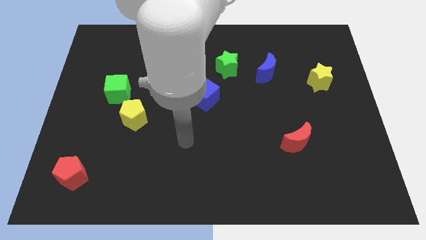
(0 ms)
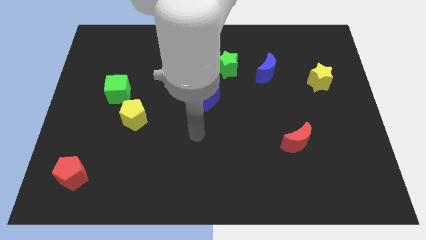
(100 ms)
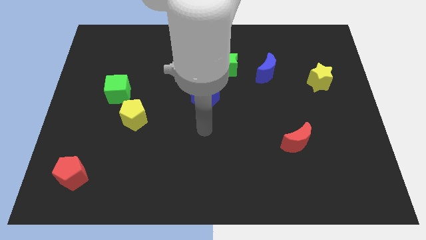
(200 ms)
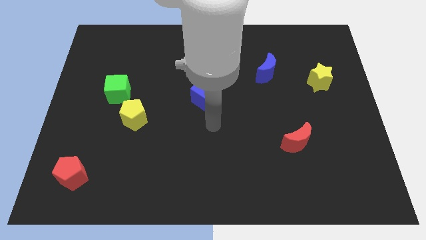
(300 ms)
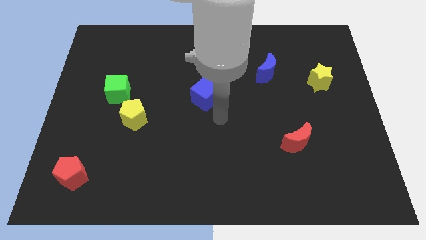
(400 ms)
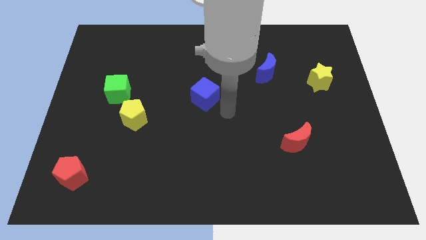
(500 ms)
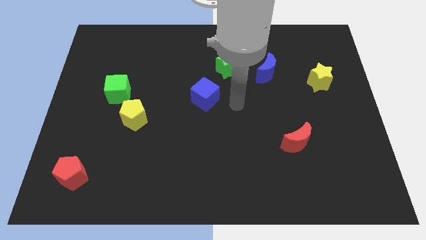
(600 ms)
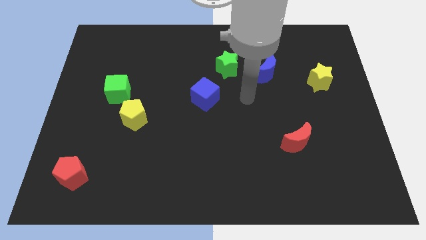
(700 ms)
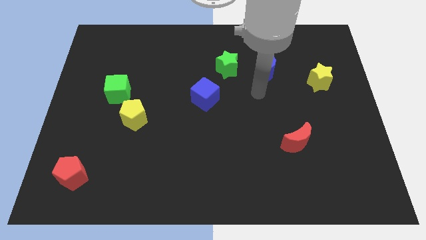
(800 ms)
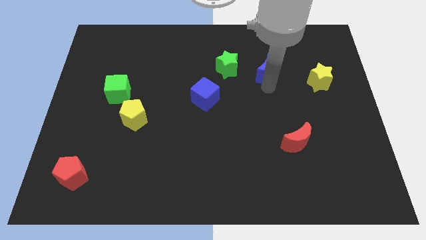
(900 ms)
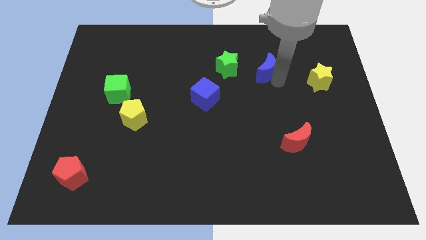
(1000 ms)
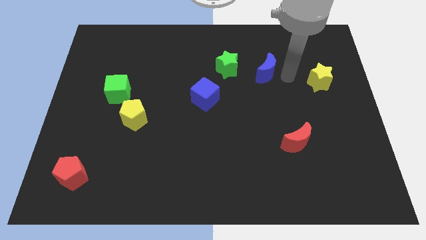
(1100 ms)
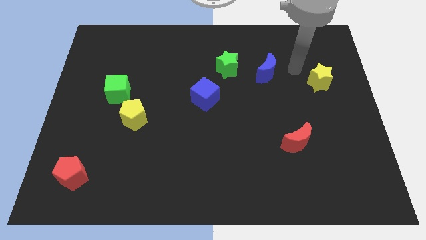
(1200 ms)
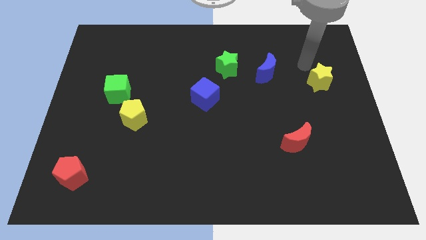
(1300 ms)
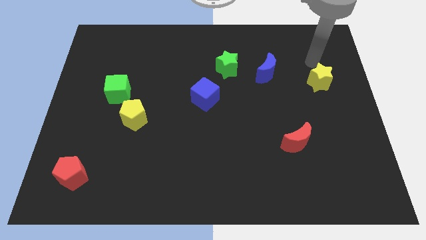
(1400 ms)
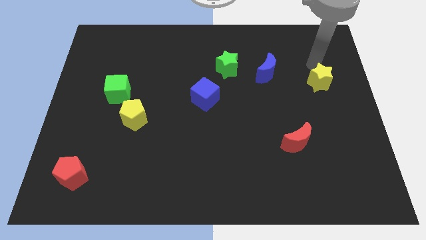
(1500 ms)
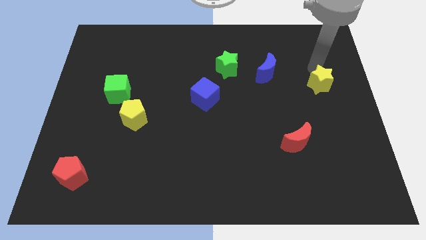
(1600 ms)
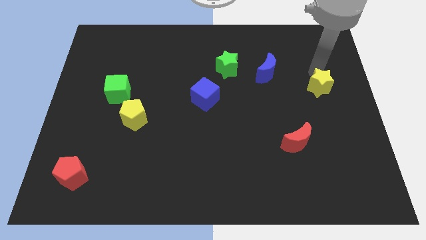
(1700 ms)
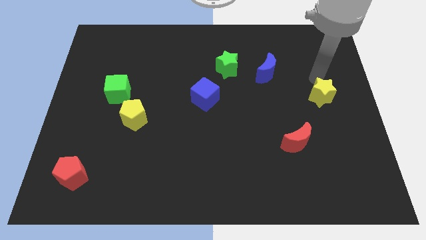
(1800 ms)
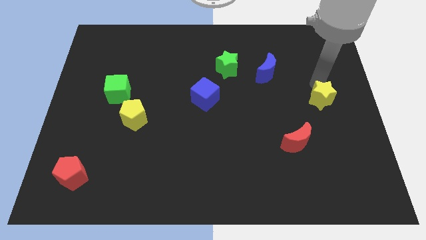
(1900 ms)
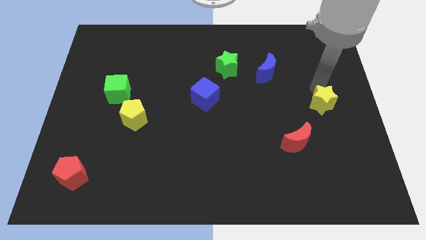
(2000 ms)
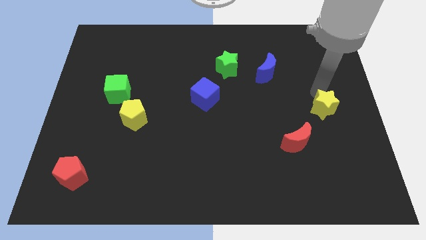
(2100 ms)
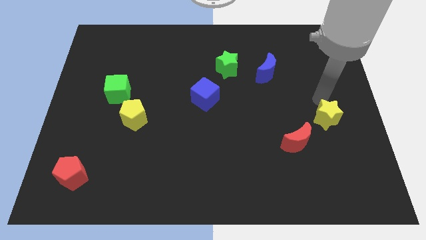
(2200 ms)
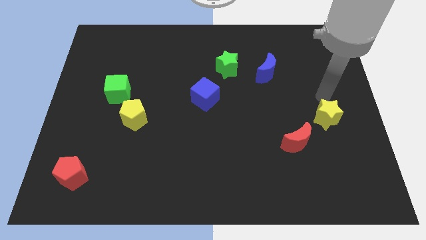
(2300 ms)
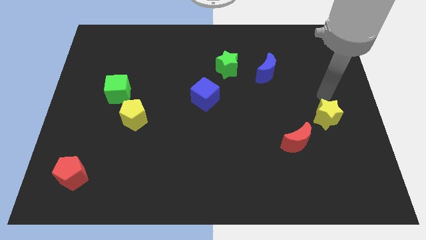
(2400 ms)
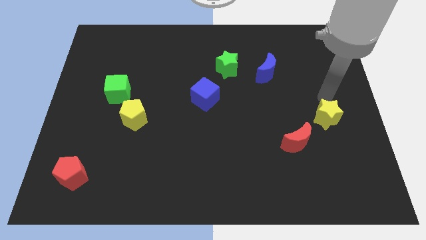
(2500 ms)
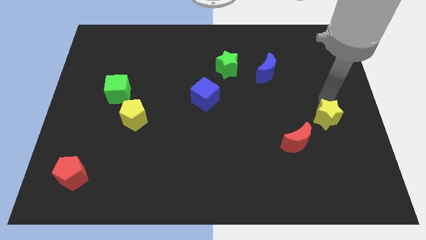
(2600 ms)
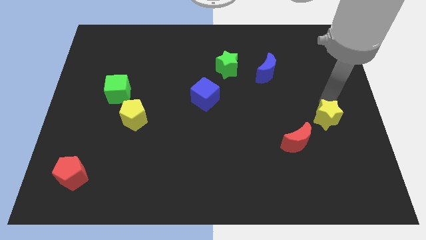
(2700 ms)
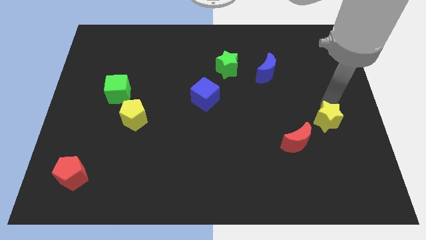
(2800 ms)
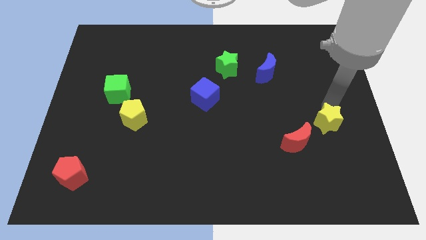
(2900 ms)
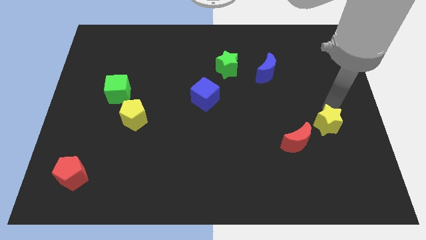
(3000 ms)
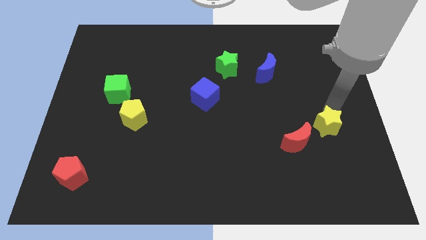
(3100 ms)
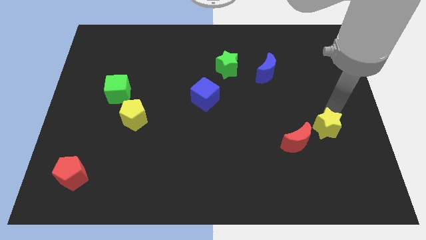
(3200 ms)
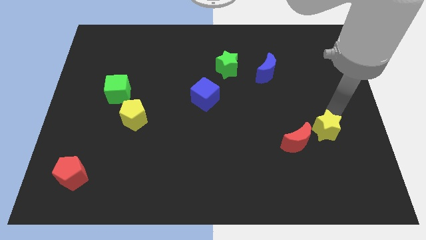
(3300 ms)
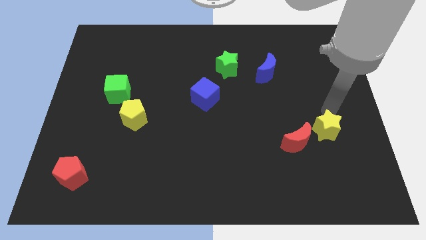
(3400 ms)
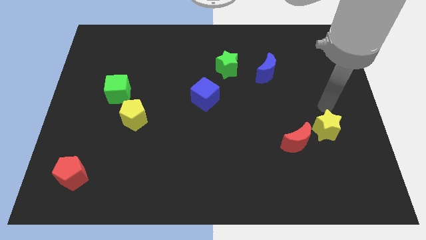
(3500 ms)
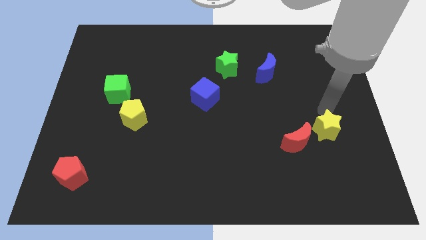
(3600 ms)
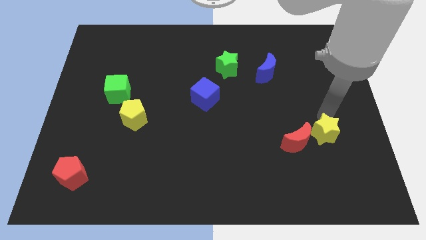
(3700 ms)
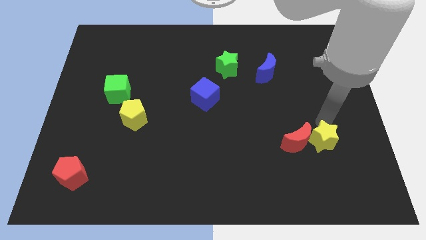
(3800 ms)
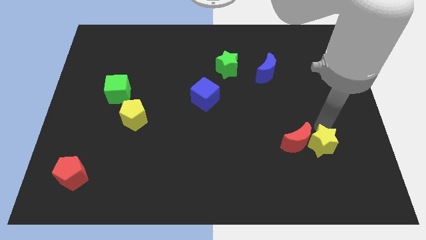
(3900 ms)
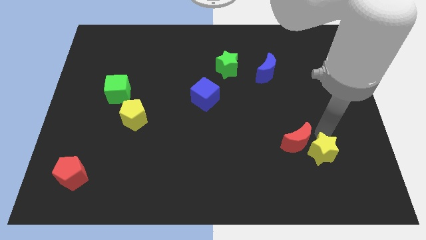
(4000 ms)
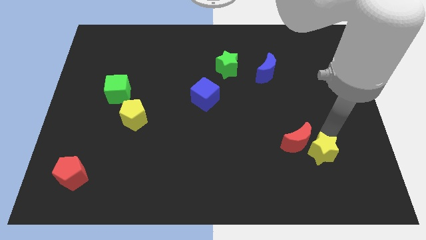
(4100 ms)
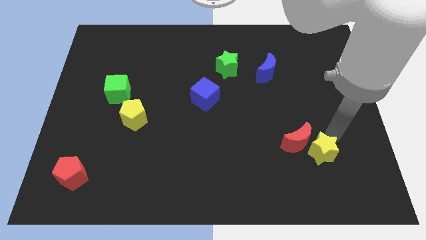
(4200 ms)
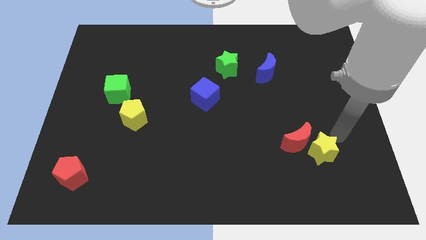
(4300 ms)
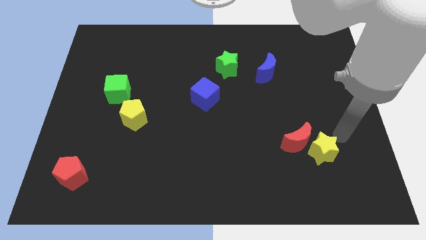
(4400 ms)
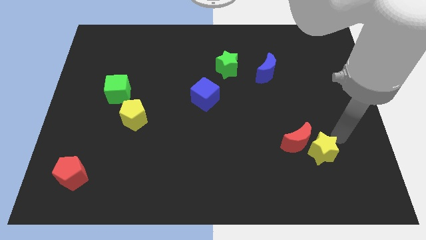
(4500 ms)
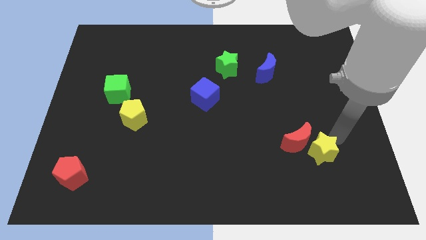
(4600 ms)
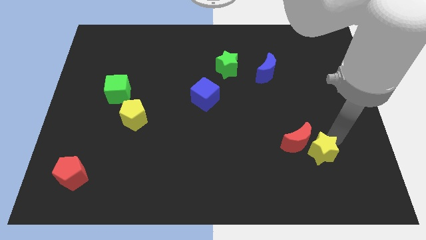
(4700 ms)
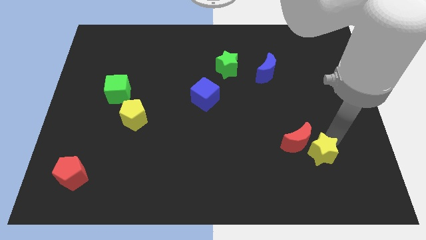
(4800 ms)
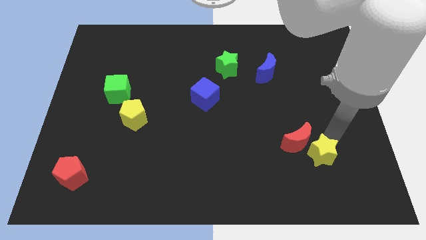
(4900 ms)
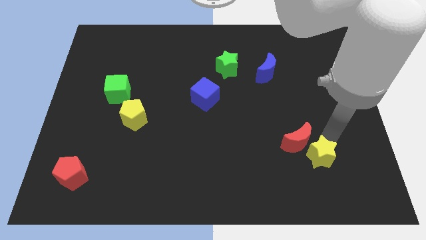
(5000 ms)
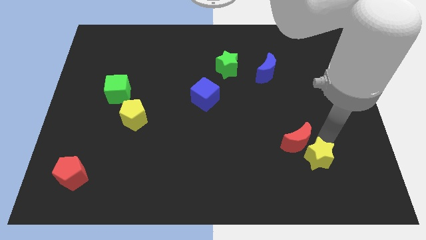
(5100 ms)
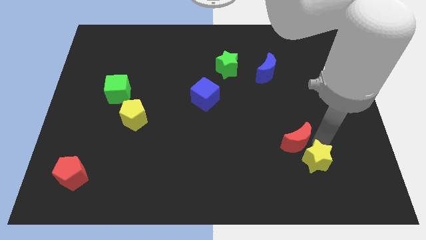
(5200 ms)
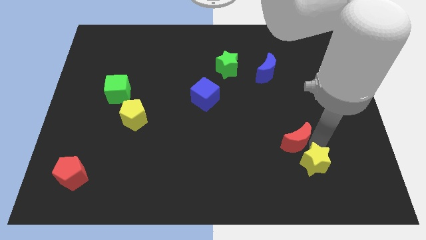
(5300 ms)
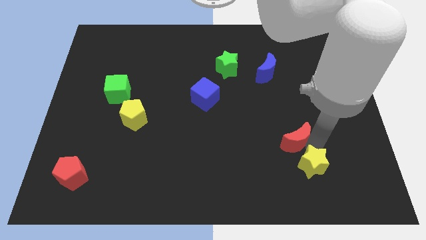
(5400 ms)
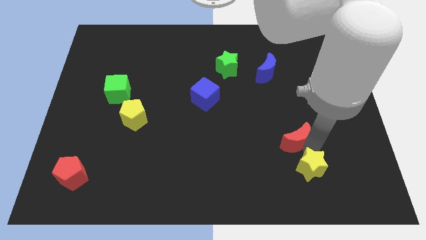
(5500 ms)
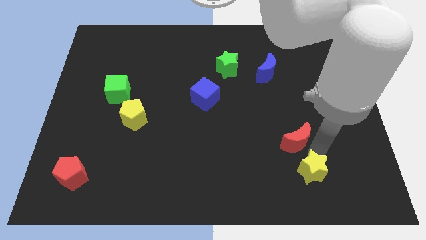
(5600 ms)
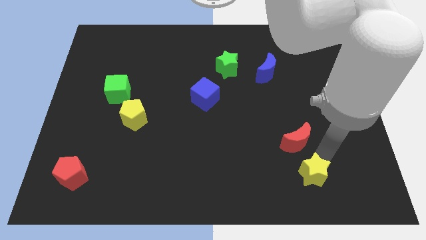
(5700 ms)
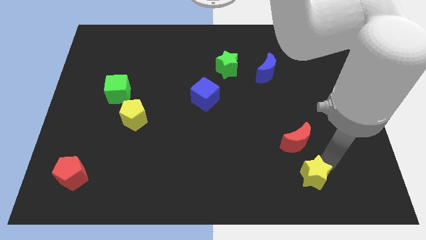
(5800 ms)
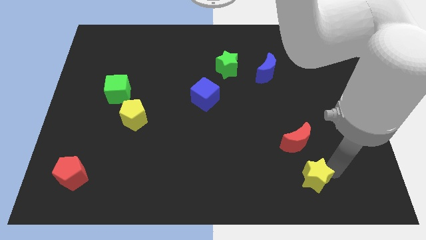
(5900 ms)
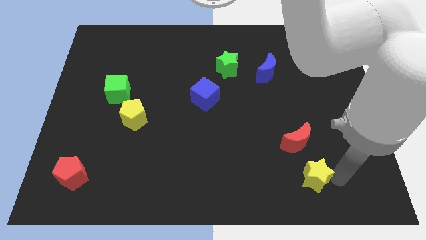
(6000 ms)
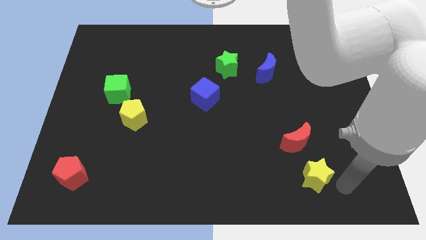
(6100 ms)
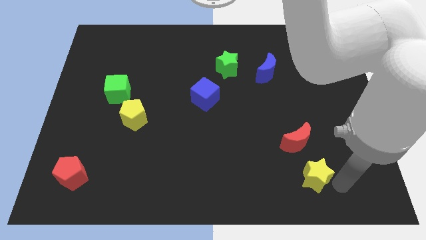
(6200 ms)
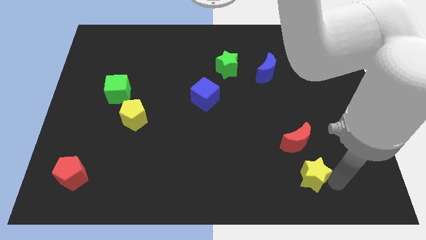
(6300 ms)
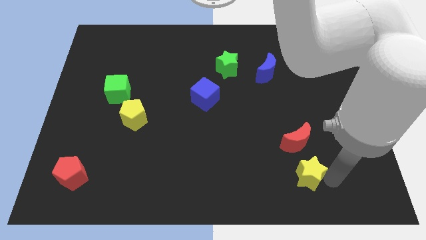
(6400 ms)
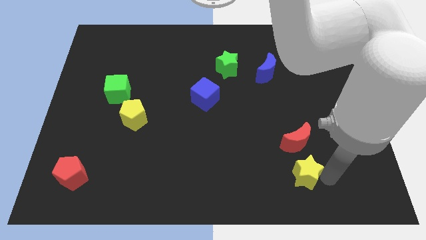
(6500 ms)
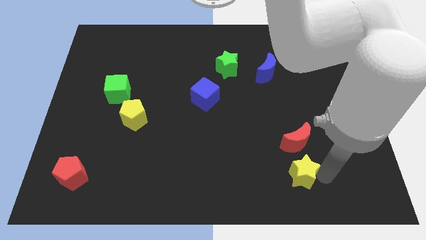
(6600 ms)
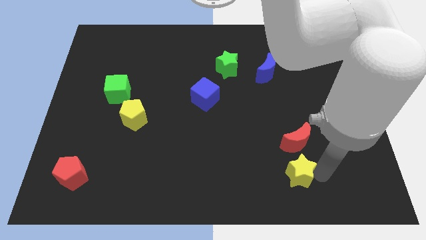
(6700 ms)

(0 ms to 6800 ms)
put the yellow star to the bottom left of the red moon
